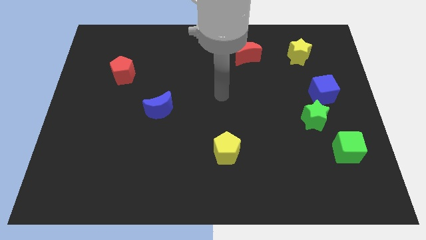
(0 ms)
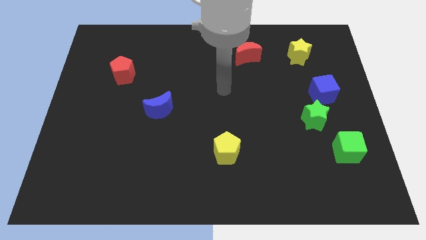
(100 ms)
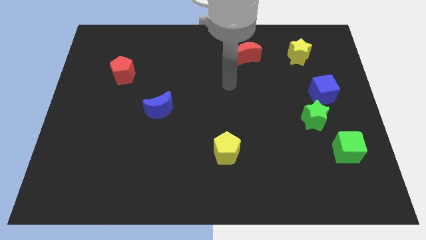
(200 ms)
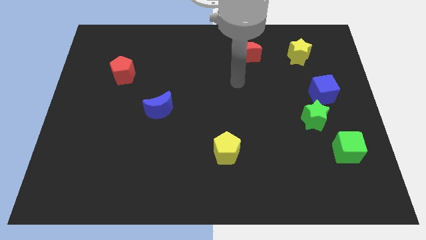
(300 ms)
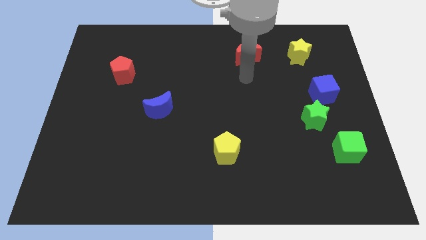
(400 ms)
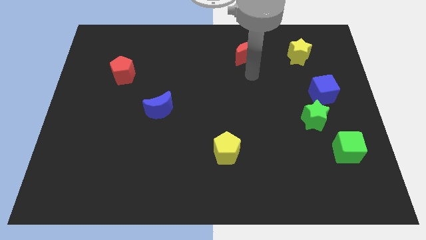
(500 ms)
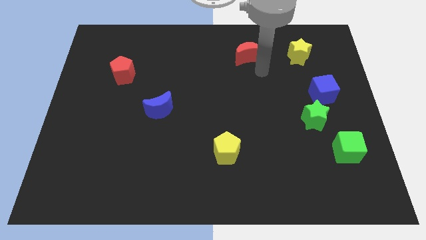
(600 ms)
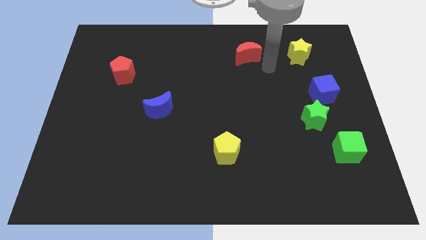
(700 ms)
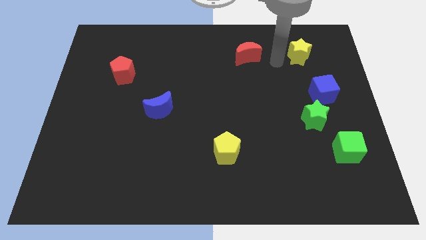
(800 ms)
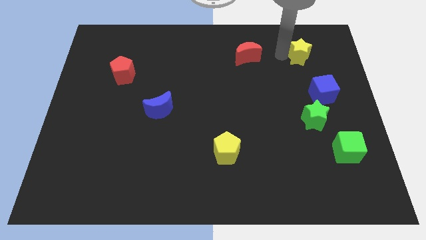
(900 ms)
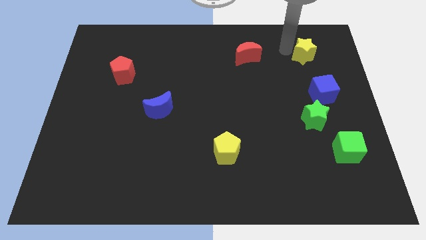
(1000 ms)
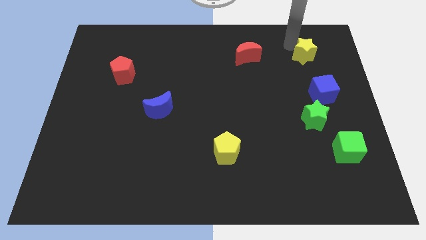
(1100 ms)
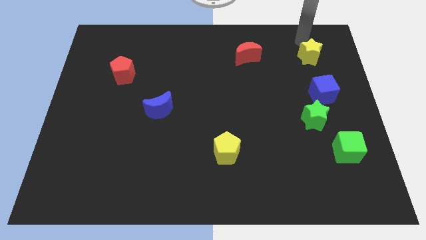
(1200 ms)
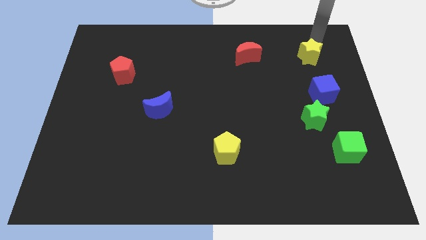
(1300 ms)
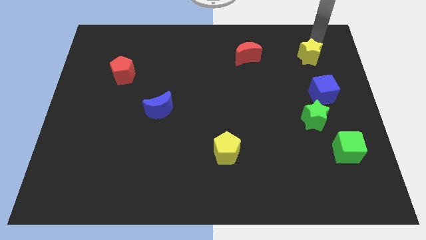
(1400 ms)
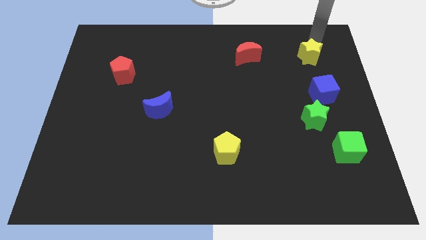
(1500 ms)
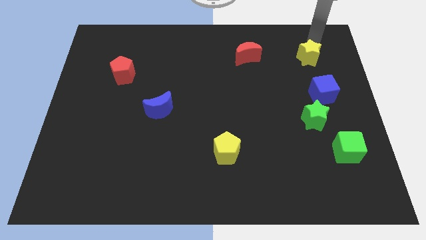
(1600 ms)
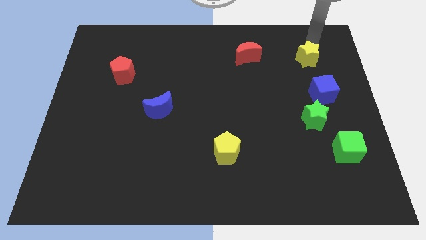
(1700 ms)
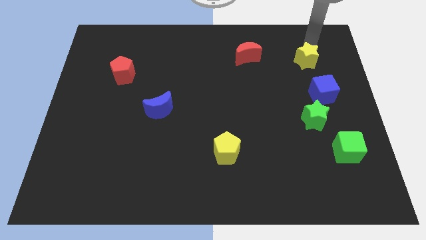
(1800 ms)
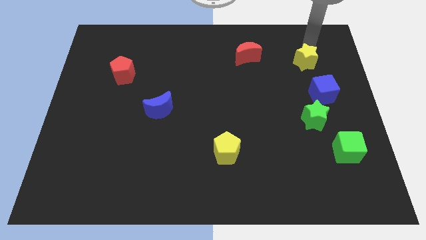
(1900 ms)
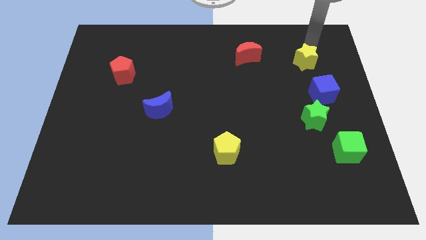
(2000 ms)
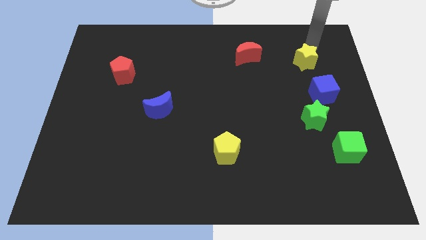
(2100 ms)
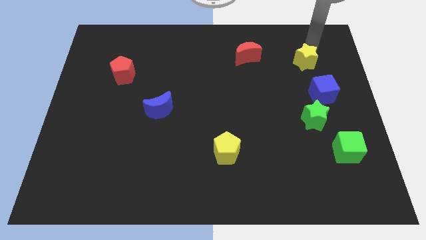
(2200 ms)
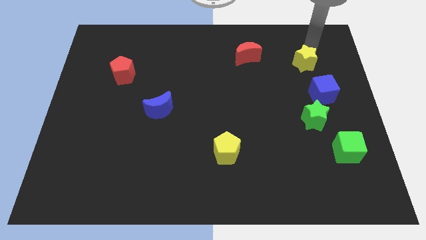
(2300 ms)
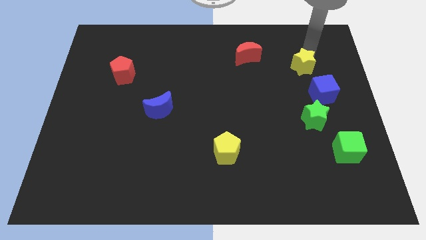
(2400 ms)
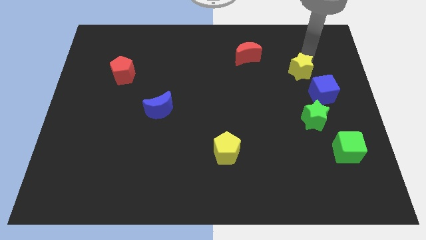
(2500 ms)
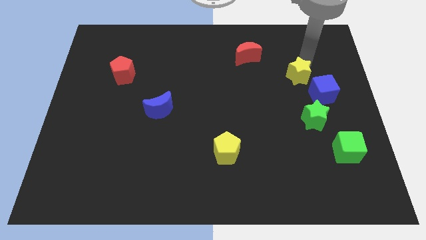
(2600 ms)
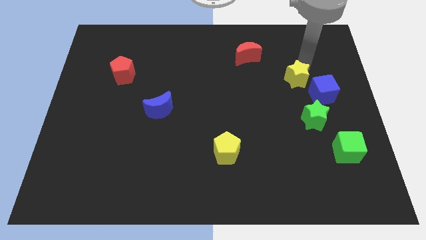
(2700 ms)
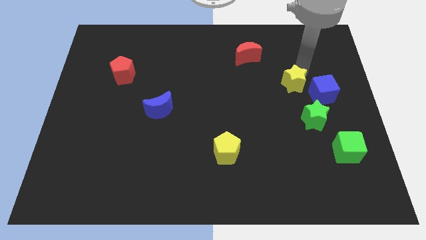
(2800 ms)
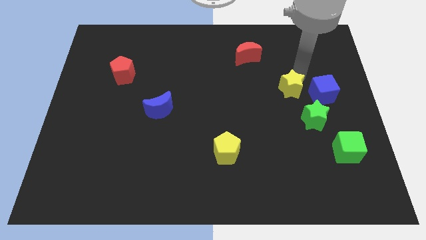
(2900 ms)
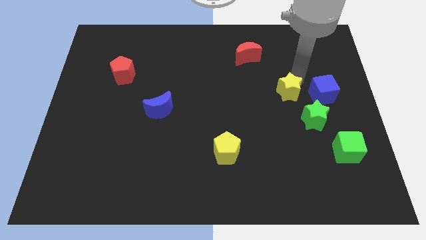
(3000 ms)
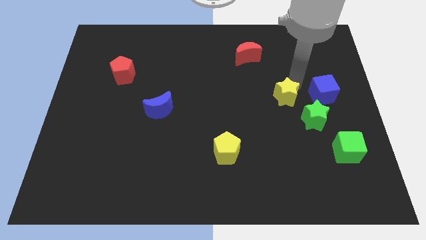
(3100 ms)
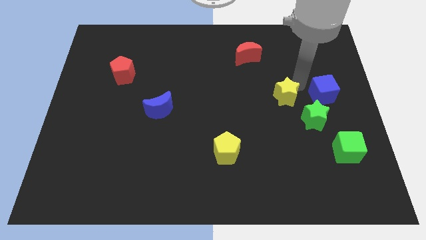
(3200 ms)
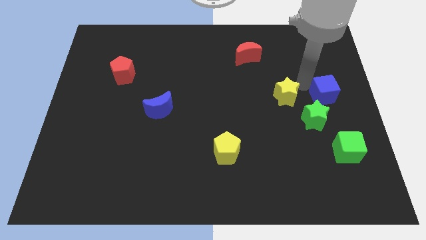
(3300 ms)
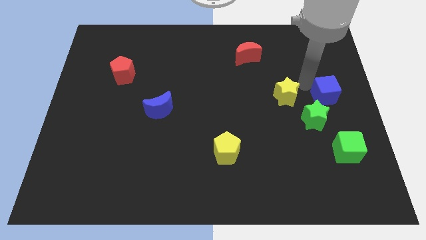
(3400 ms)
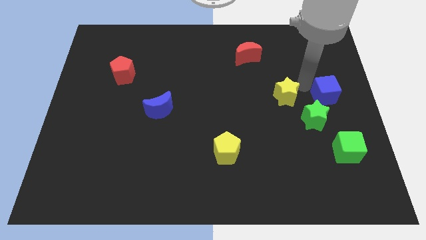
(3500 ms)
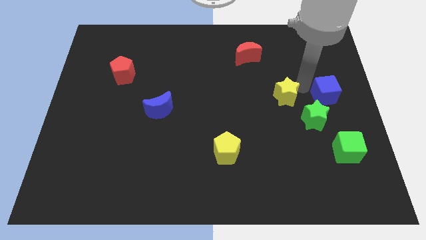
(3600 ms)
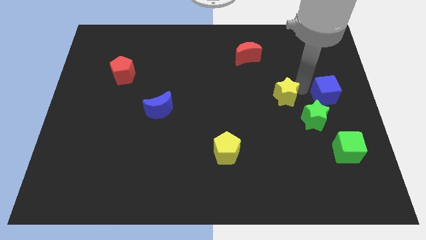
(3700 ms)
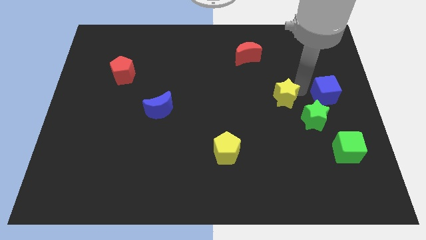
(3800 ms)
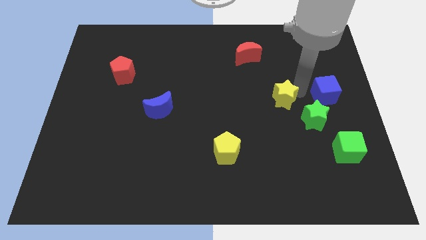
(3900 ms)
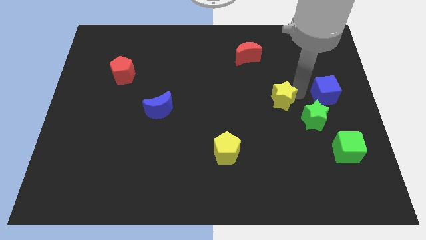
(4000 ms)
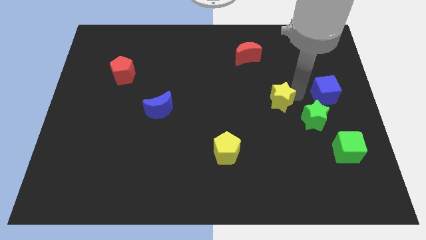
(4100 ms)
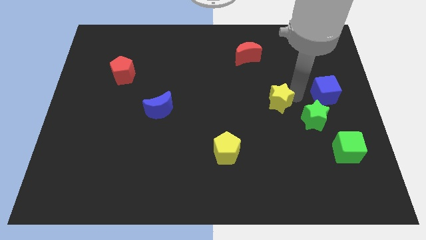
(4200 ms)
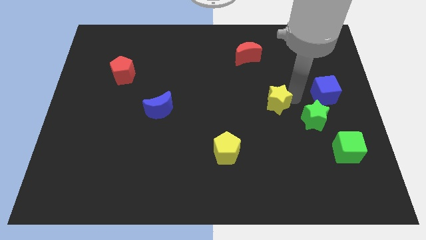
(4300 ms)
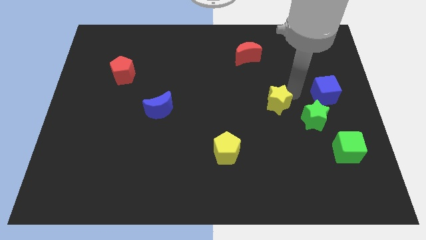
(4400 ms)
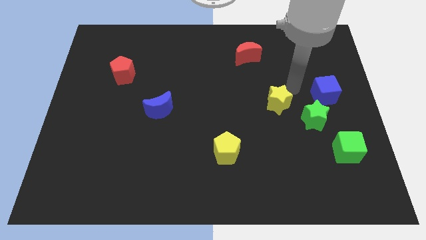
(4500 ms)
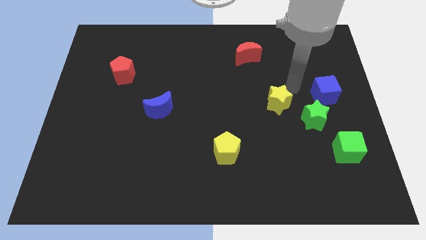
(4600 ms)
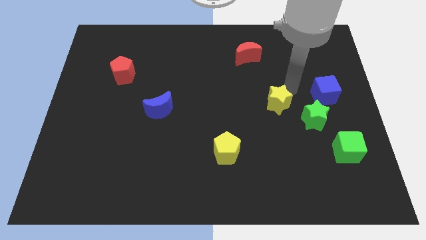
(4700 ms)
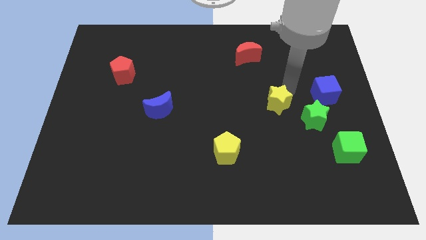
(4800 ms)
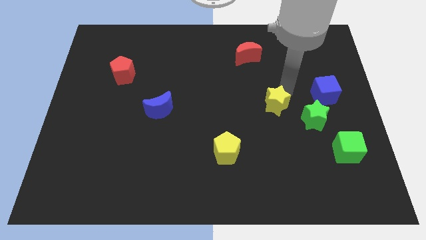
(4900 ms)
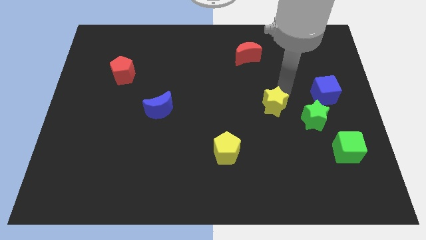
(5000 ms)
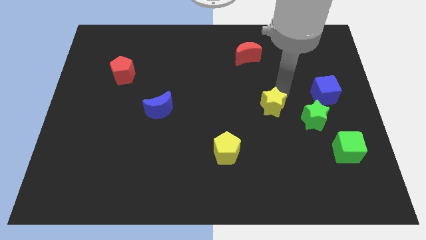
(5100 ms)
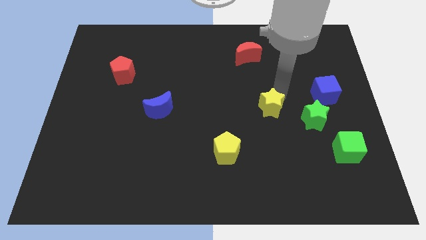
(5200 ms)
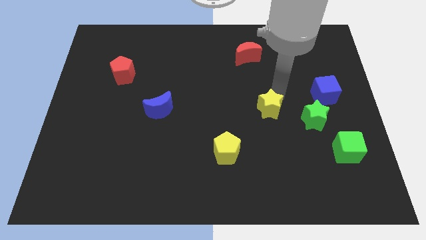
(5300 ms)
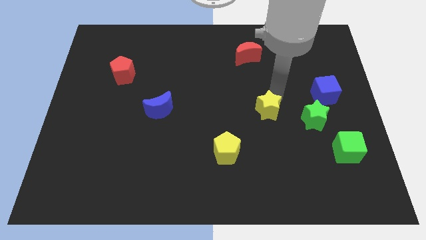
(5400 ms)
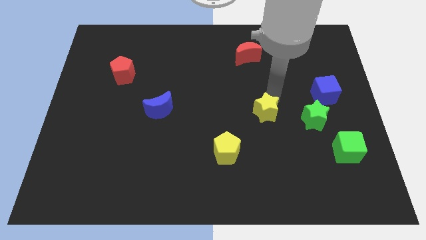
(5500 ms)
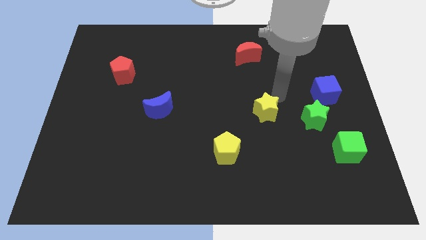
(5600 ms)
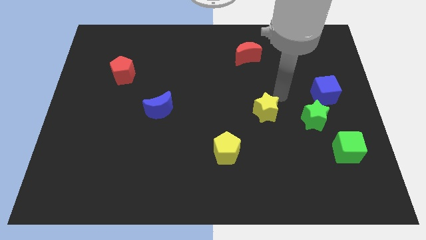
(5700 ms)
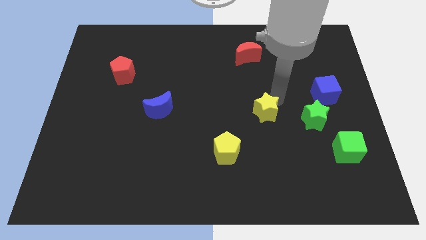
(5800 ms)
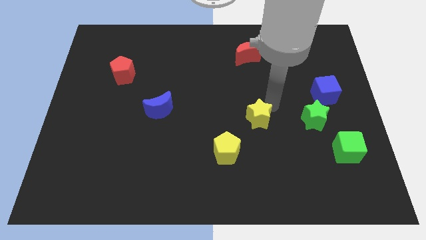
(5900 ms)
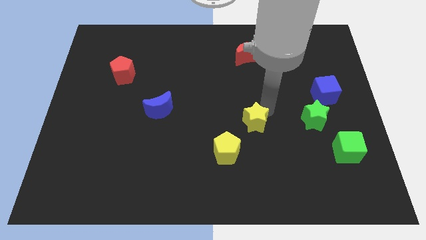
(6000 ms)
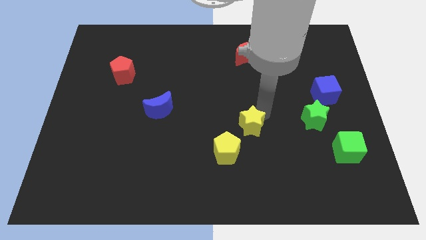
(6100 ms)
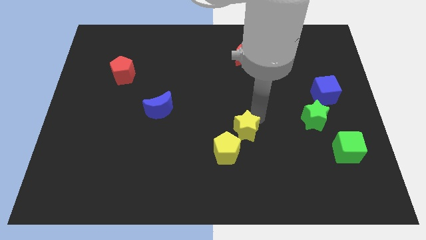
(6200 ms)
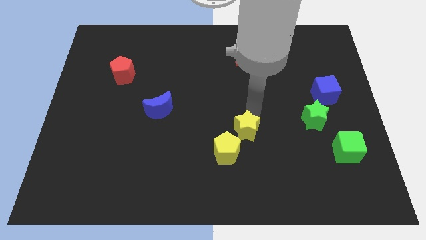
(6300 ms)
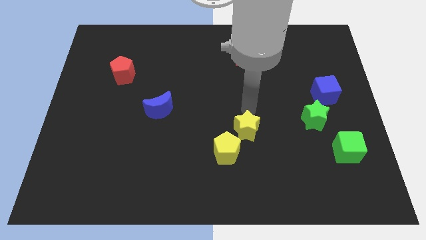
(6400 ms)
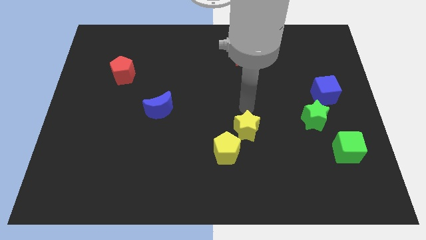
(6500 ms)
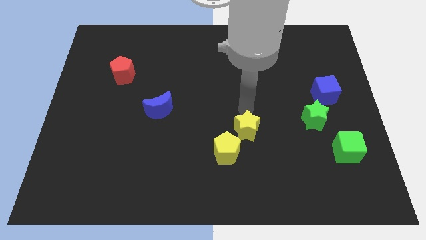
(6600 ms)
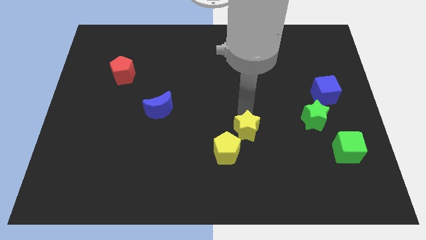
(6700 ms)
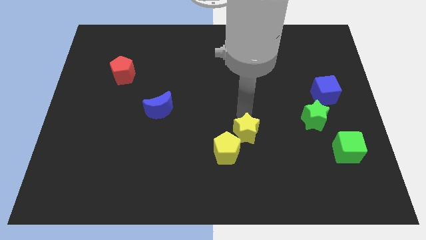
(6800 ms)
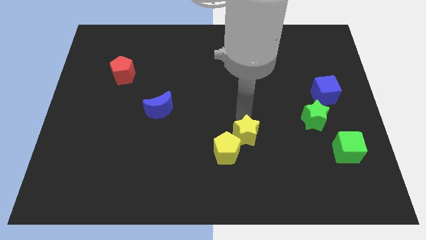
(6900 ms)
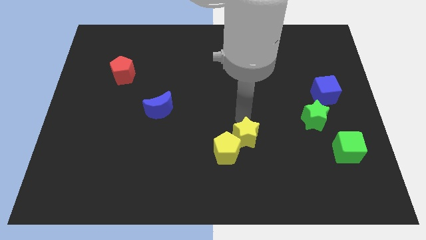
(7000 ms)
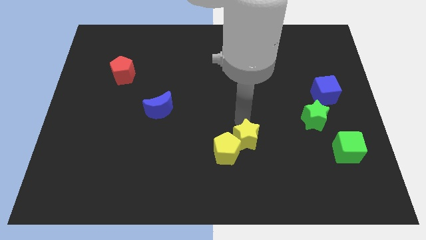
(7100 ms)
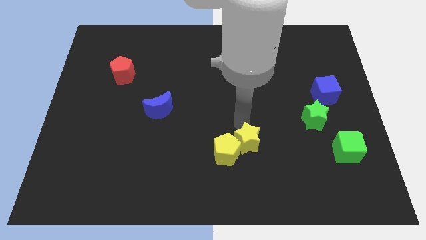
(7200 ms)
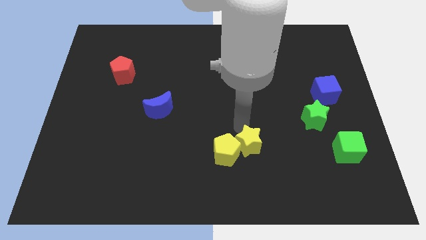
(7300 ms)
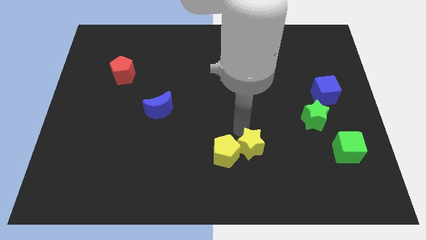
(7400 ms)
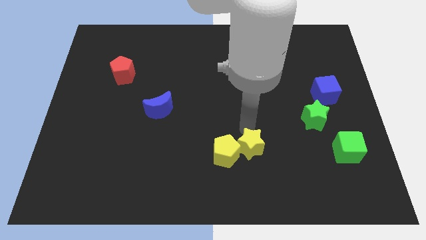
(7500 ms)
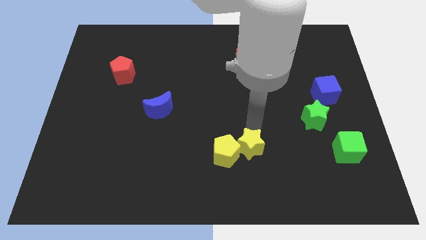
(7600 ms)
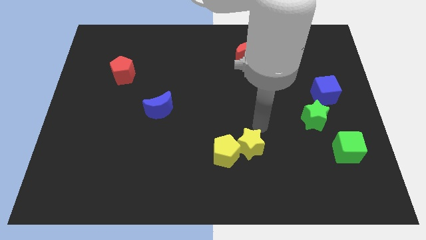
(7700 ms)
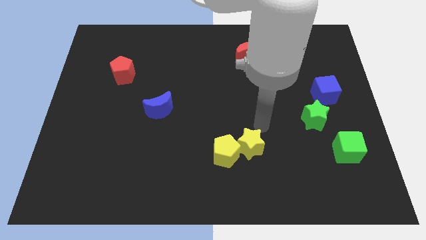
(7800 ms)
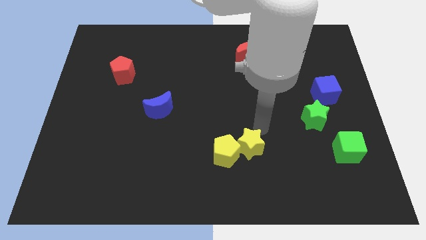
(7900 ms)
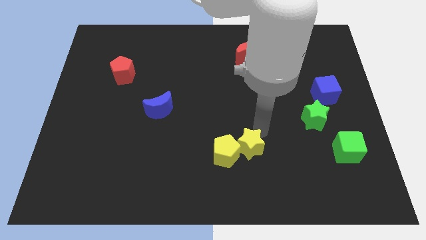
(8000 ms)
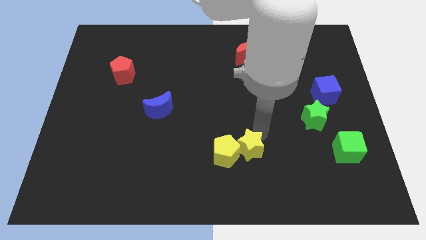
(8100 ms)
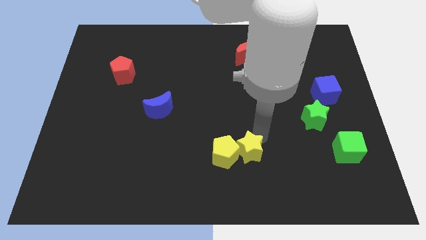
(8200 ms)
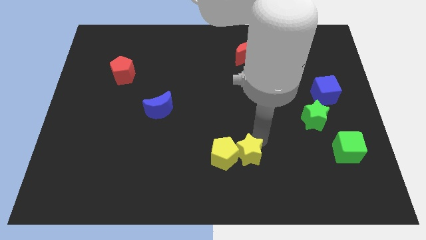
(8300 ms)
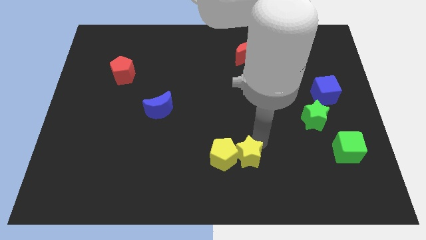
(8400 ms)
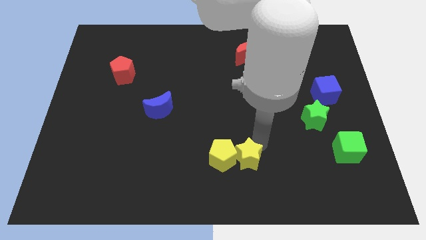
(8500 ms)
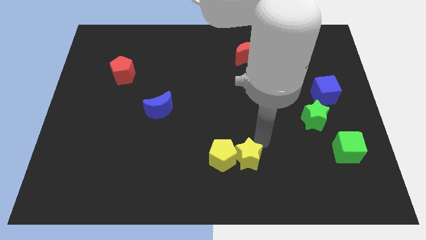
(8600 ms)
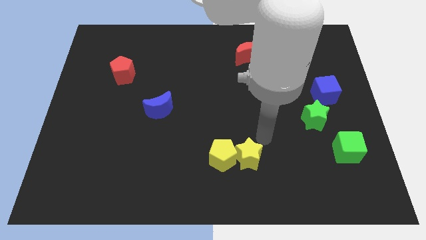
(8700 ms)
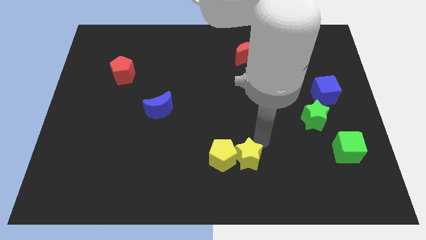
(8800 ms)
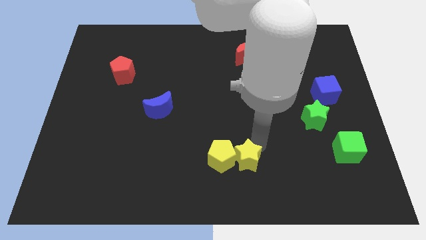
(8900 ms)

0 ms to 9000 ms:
push the yellow star to the bottom
